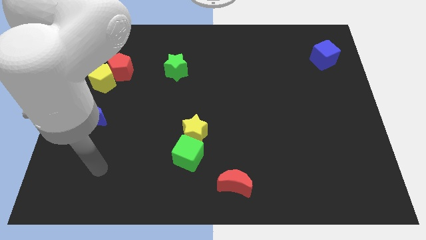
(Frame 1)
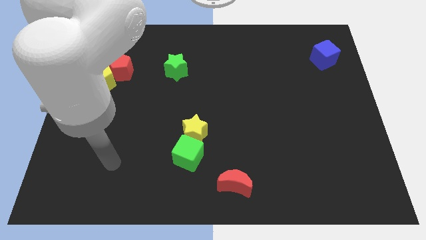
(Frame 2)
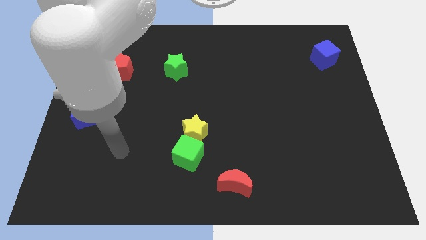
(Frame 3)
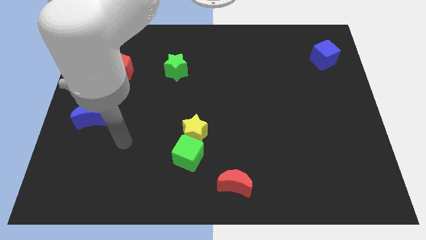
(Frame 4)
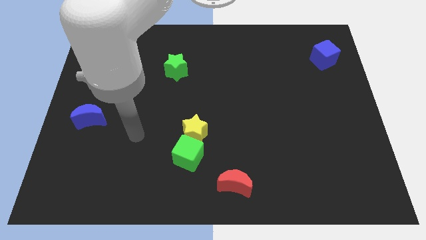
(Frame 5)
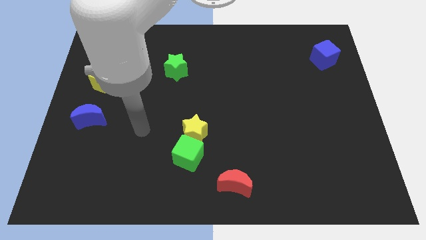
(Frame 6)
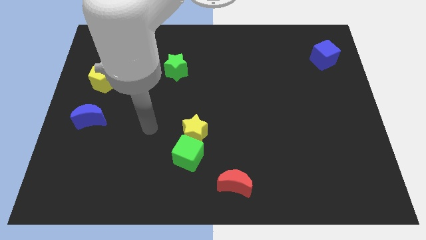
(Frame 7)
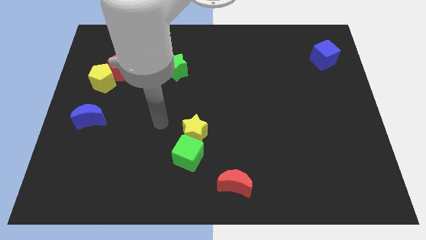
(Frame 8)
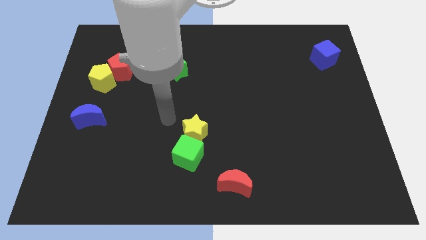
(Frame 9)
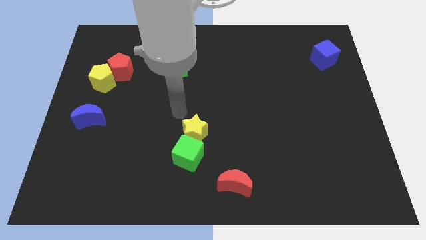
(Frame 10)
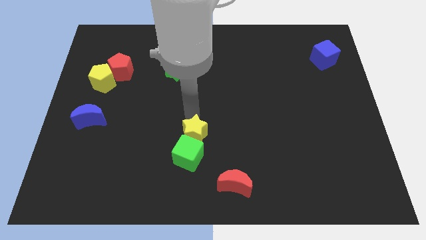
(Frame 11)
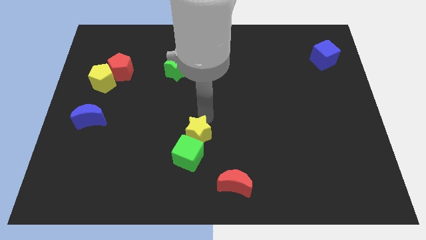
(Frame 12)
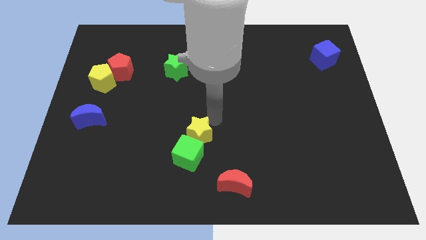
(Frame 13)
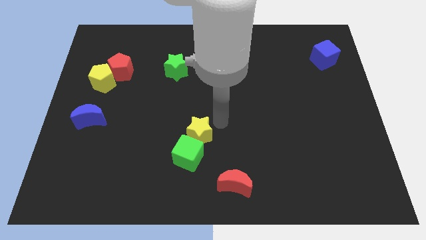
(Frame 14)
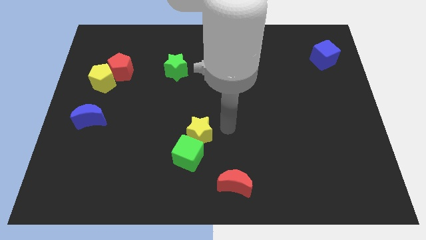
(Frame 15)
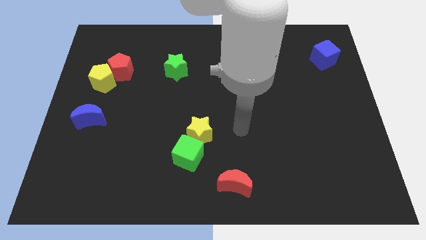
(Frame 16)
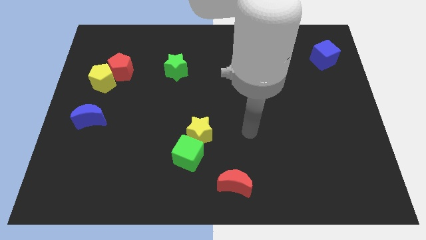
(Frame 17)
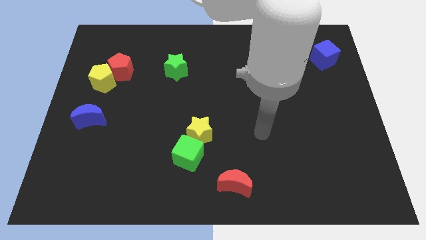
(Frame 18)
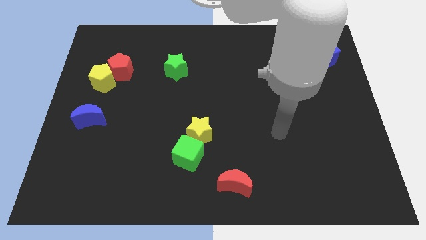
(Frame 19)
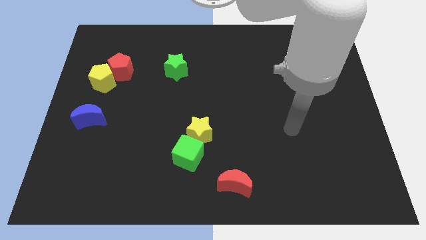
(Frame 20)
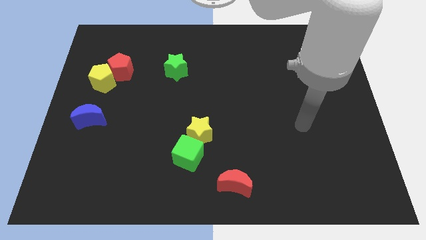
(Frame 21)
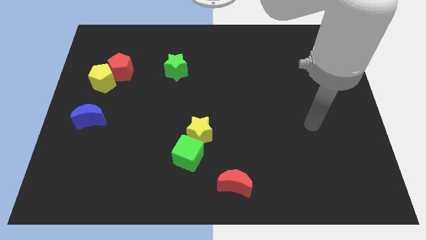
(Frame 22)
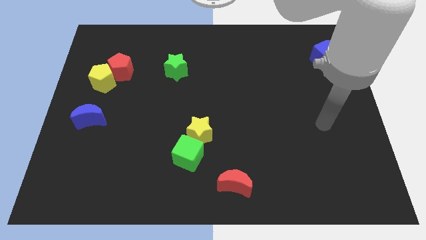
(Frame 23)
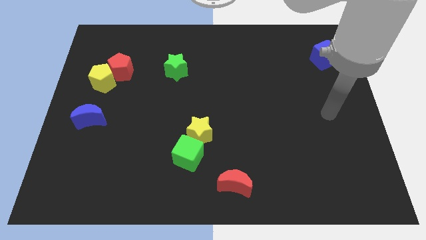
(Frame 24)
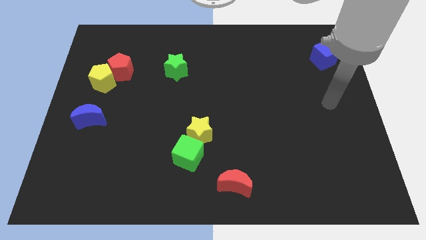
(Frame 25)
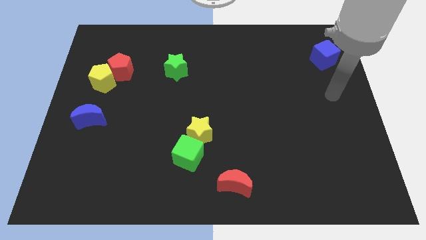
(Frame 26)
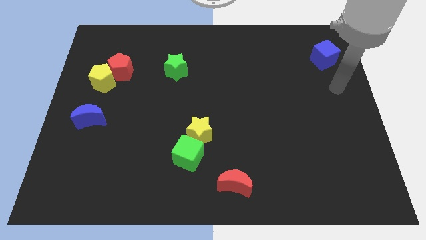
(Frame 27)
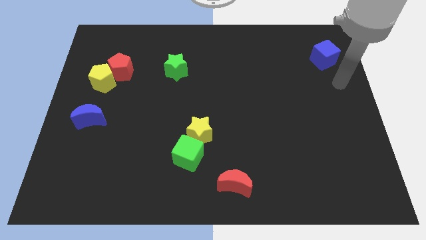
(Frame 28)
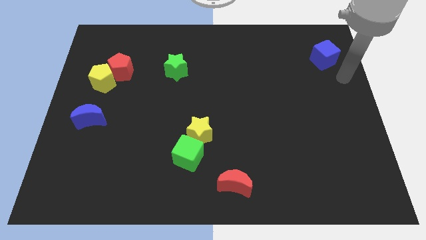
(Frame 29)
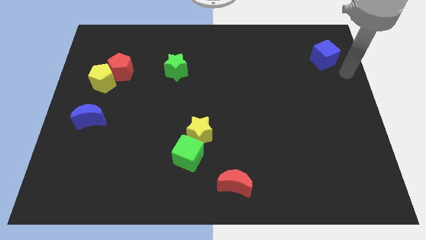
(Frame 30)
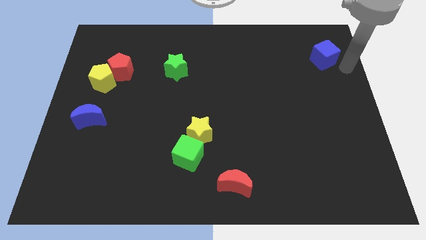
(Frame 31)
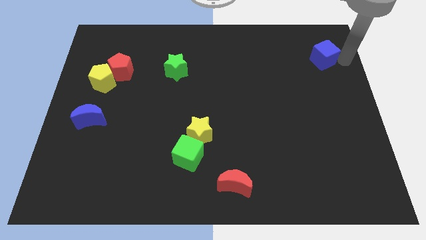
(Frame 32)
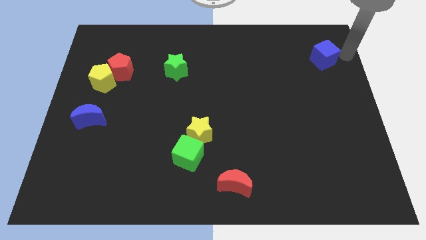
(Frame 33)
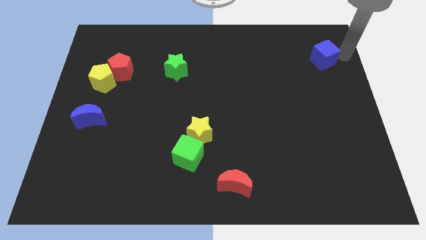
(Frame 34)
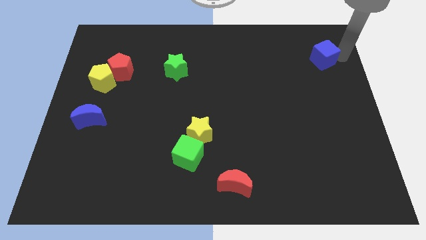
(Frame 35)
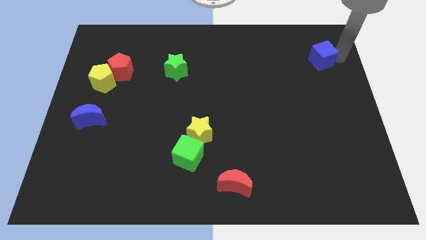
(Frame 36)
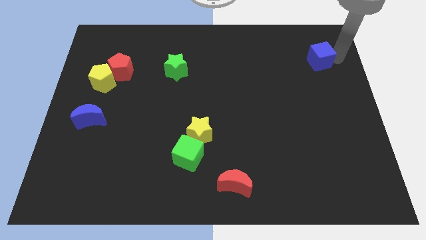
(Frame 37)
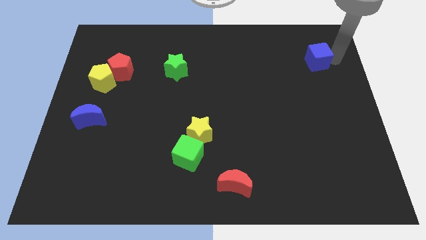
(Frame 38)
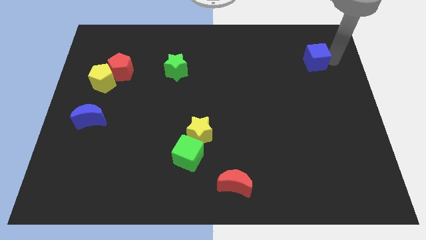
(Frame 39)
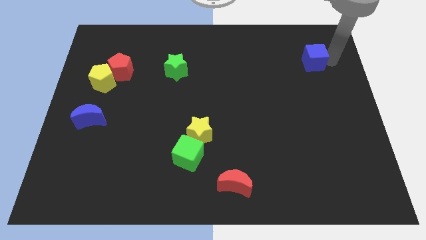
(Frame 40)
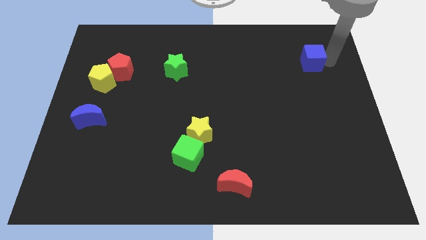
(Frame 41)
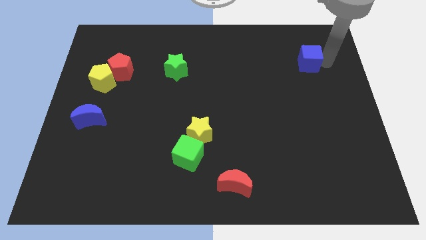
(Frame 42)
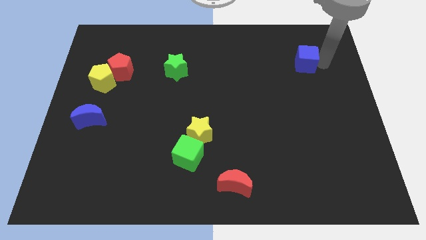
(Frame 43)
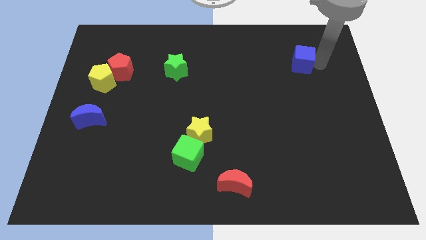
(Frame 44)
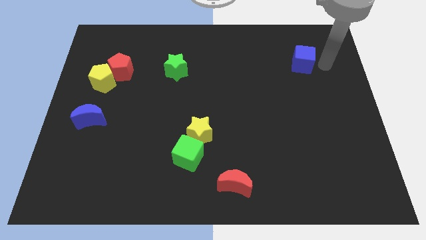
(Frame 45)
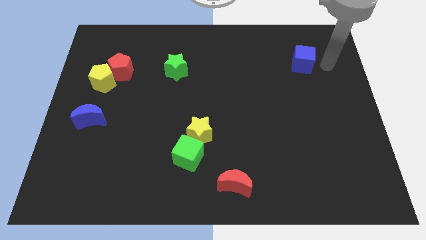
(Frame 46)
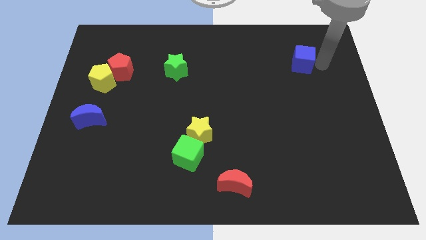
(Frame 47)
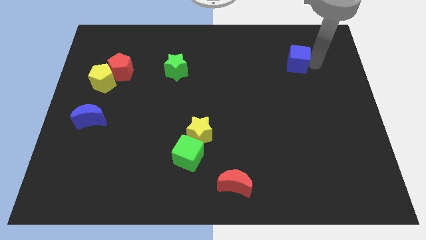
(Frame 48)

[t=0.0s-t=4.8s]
slightly push the blue cube to the left

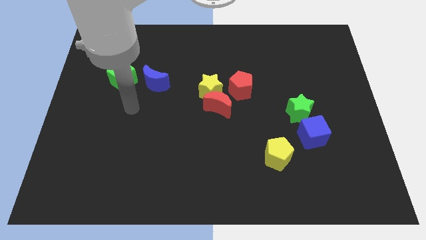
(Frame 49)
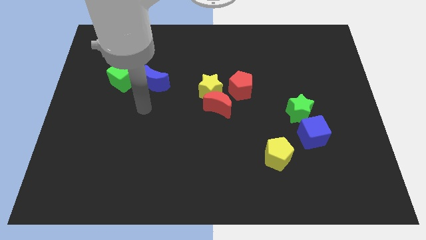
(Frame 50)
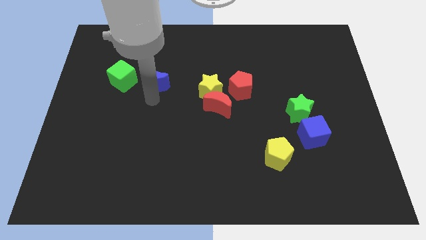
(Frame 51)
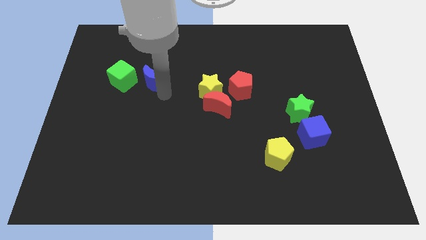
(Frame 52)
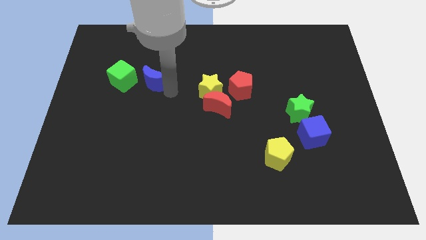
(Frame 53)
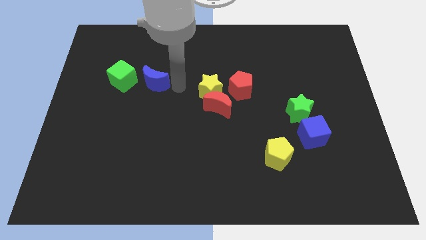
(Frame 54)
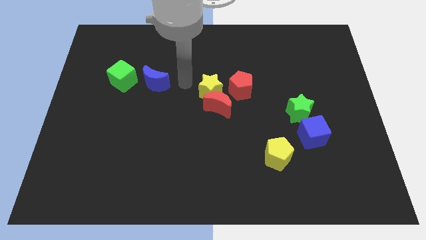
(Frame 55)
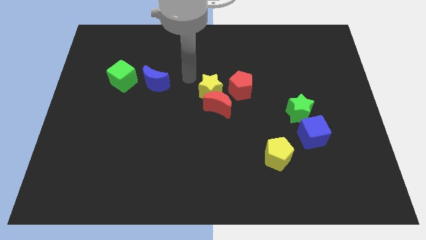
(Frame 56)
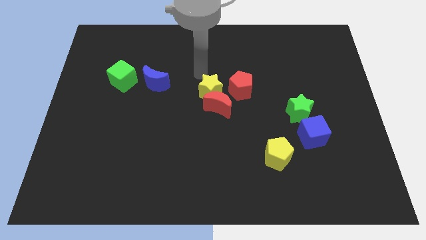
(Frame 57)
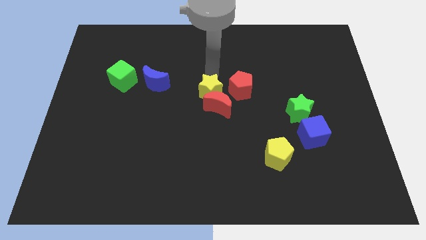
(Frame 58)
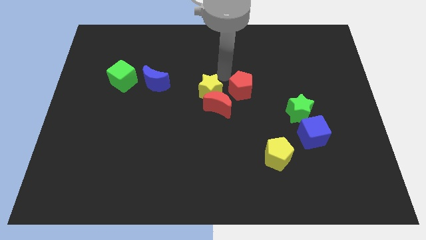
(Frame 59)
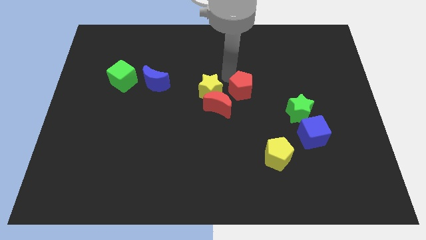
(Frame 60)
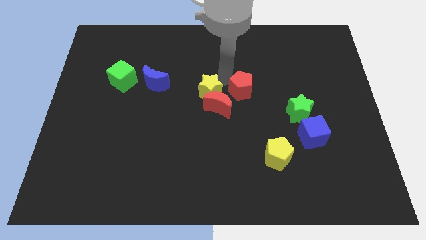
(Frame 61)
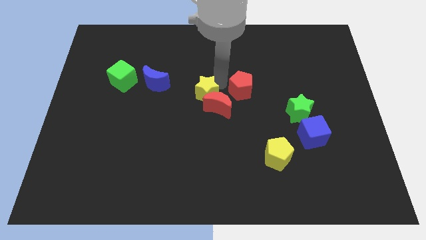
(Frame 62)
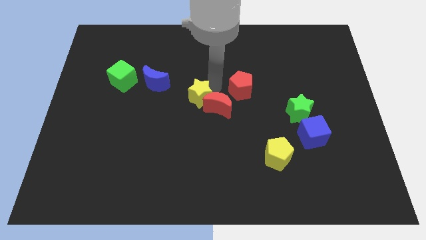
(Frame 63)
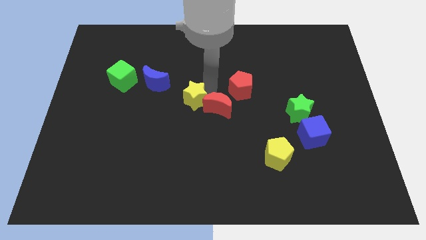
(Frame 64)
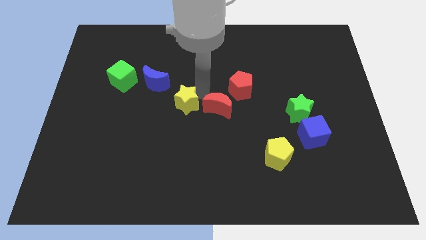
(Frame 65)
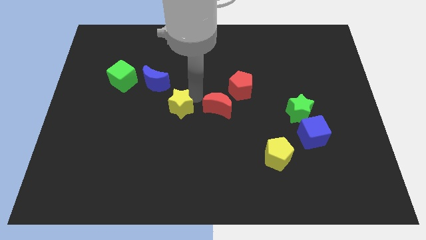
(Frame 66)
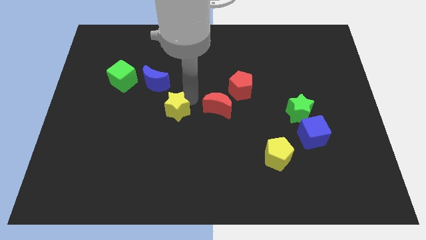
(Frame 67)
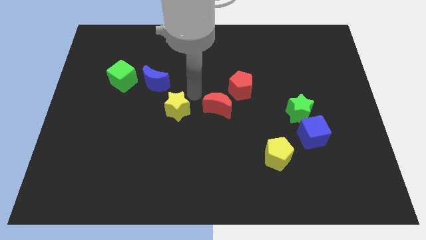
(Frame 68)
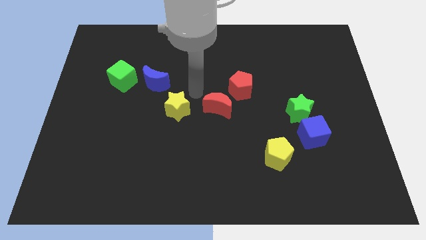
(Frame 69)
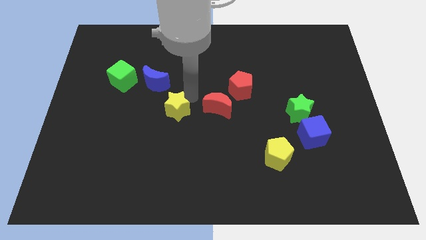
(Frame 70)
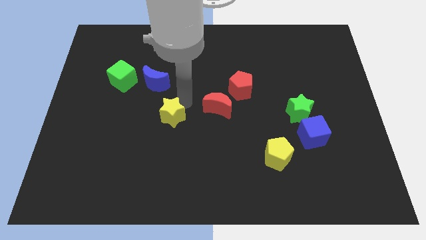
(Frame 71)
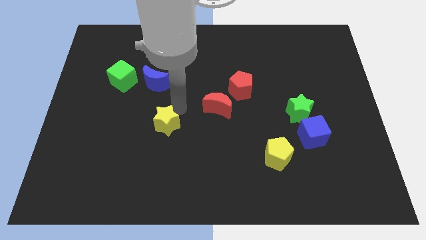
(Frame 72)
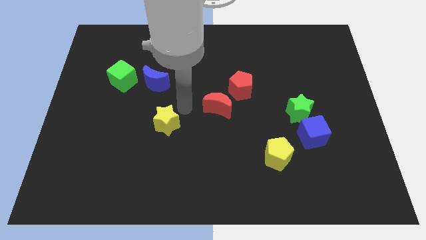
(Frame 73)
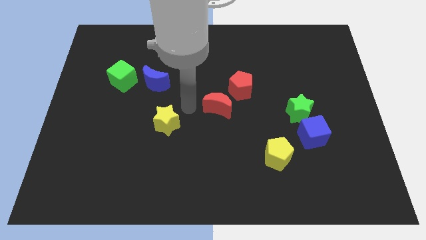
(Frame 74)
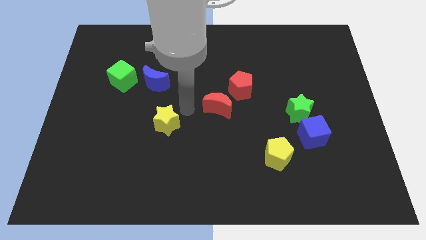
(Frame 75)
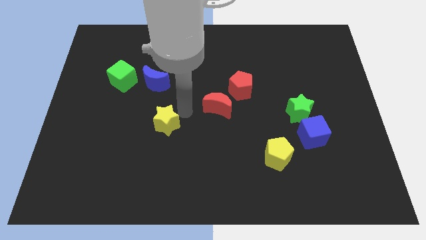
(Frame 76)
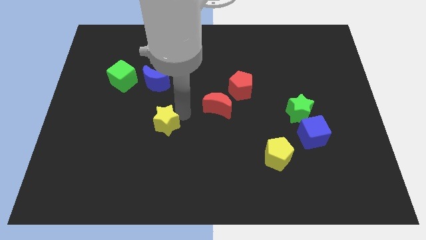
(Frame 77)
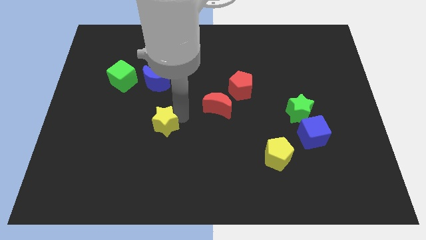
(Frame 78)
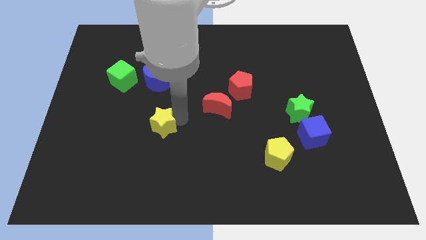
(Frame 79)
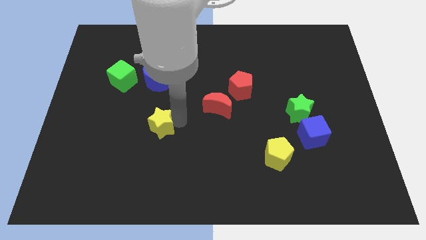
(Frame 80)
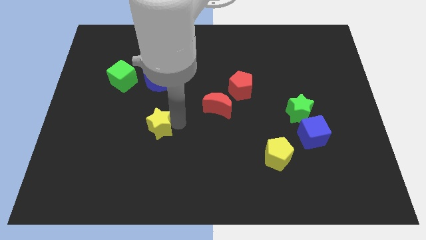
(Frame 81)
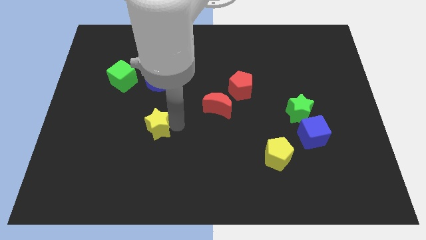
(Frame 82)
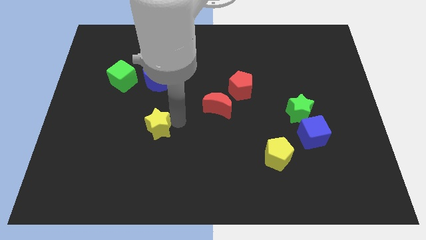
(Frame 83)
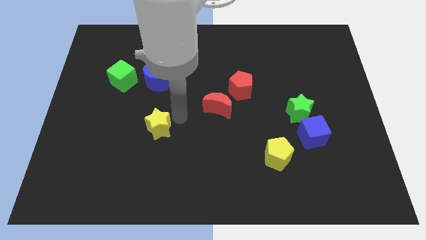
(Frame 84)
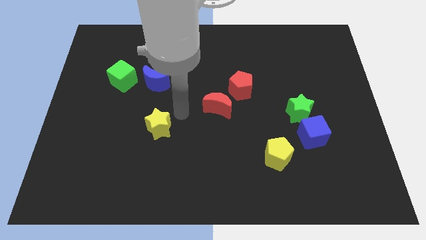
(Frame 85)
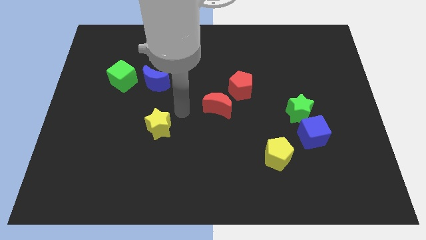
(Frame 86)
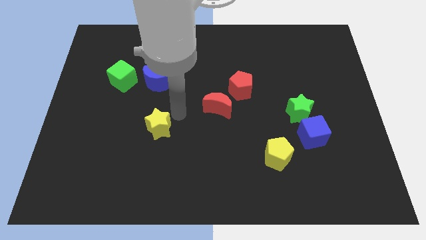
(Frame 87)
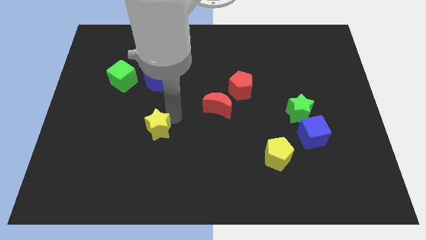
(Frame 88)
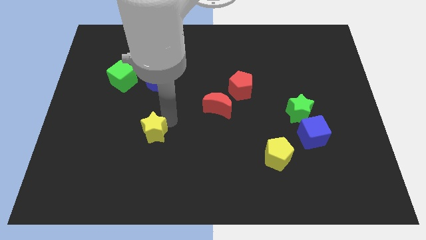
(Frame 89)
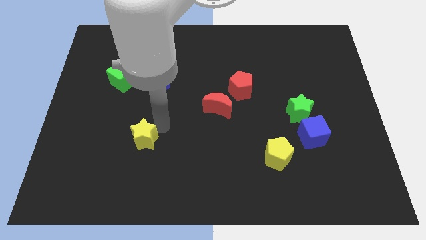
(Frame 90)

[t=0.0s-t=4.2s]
move the yellow star downwards and then left
